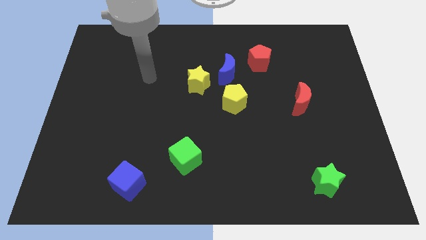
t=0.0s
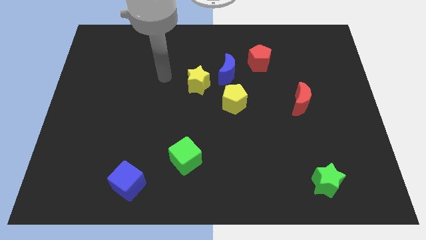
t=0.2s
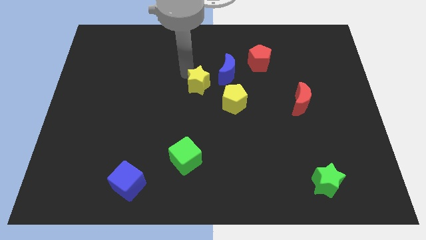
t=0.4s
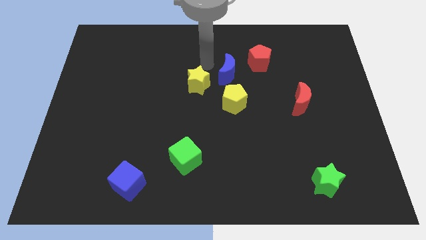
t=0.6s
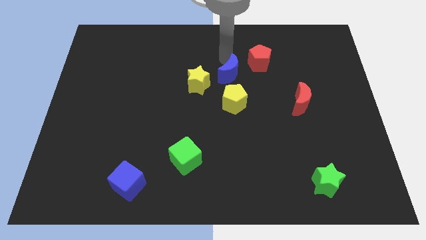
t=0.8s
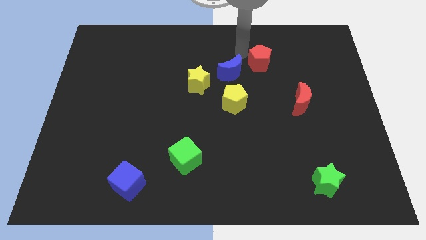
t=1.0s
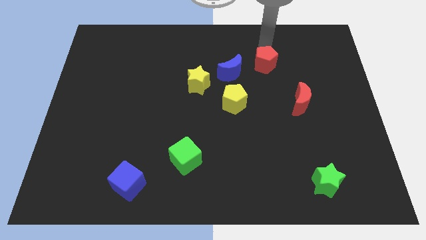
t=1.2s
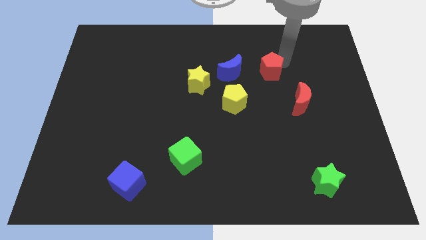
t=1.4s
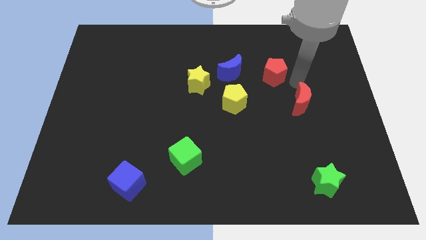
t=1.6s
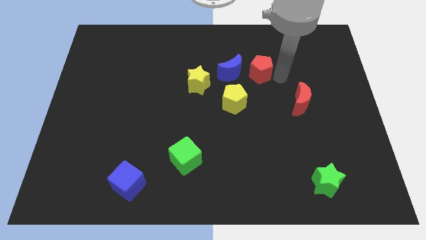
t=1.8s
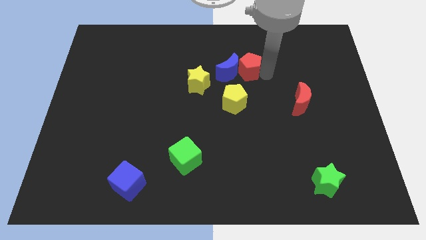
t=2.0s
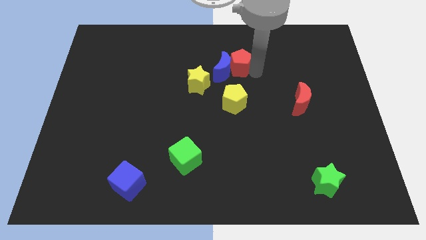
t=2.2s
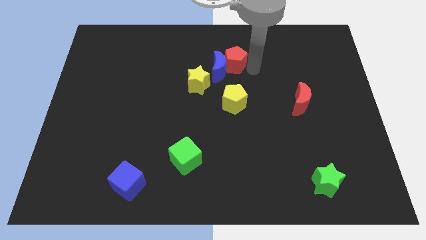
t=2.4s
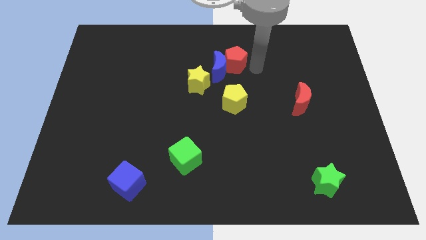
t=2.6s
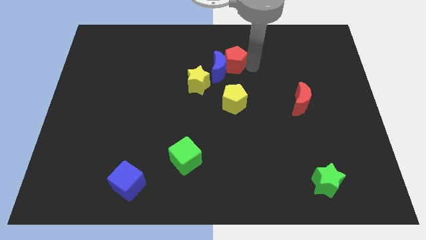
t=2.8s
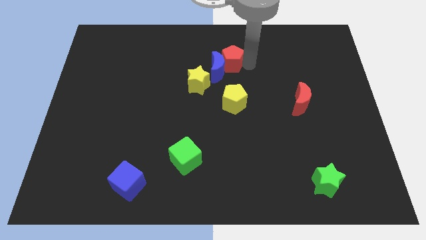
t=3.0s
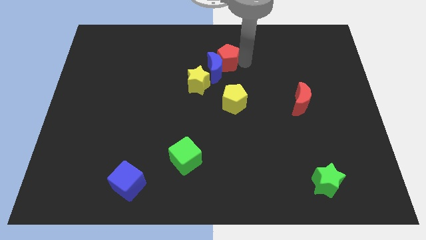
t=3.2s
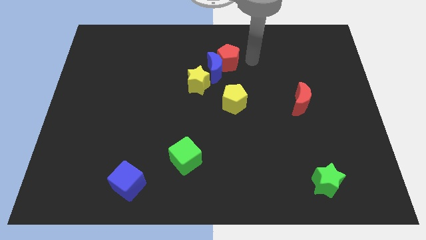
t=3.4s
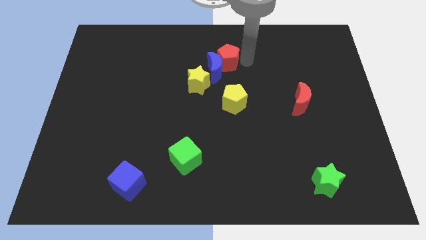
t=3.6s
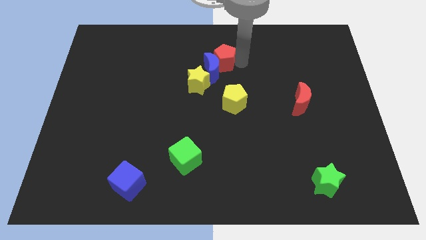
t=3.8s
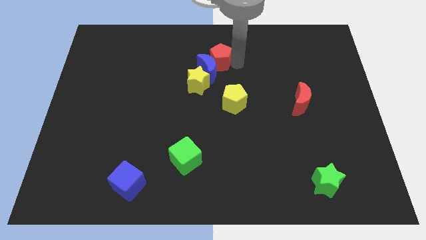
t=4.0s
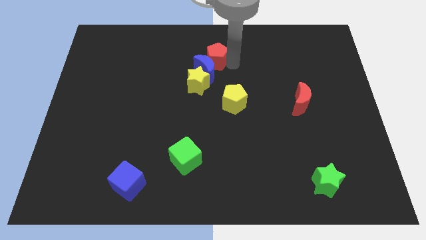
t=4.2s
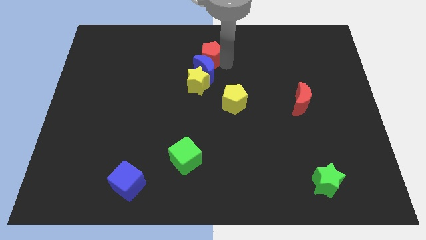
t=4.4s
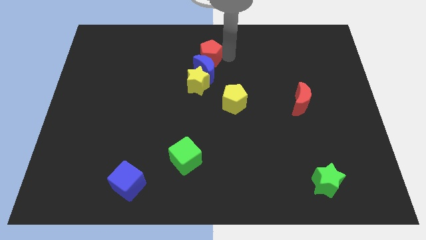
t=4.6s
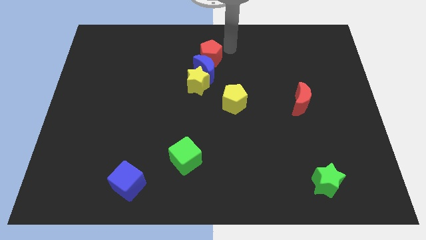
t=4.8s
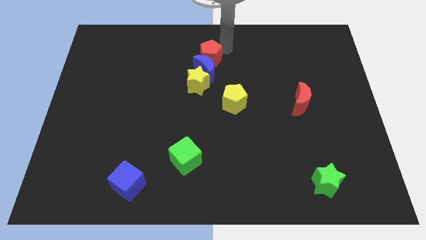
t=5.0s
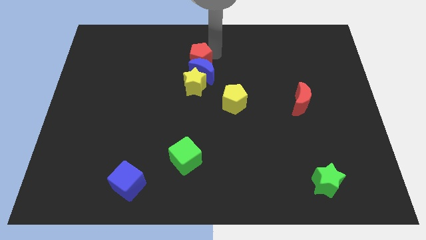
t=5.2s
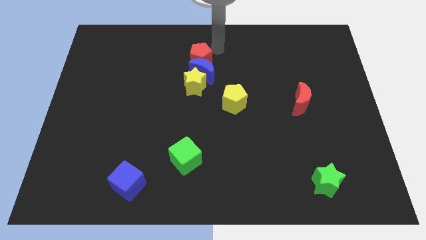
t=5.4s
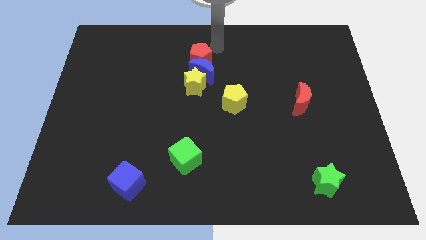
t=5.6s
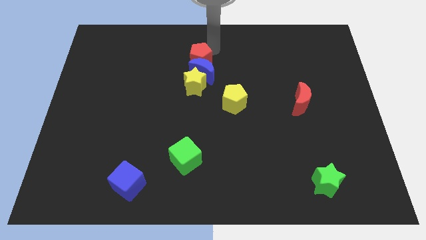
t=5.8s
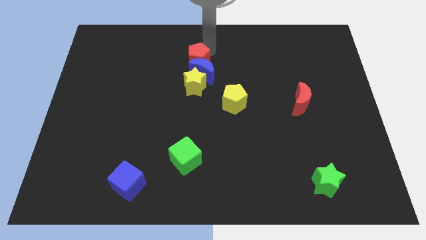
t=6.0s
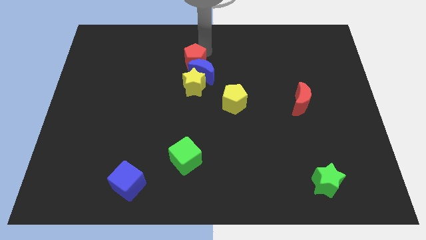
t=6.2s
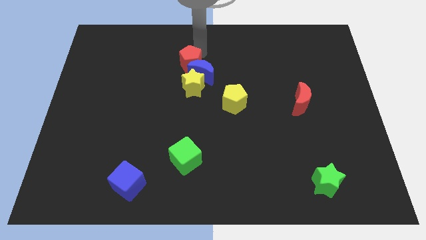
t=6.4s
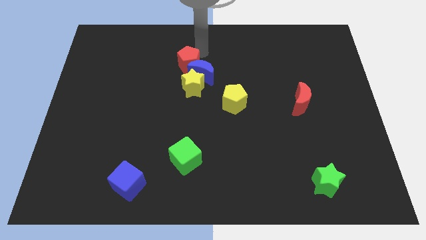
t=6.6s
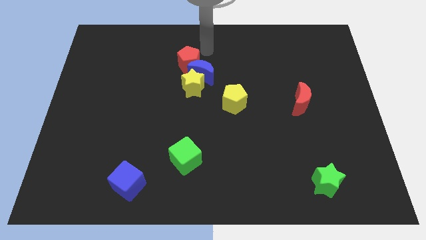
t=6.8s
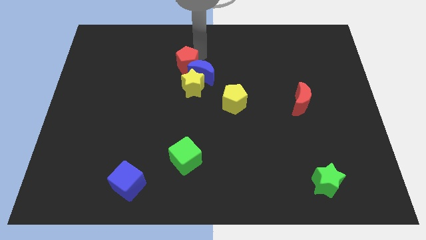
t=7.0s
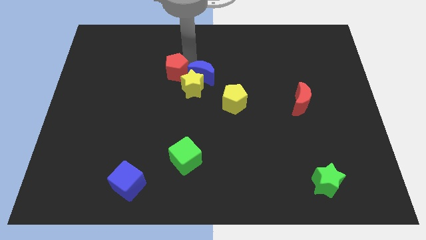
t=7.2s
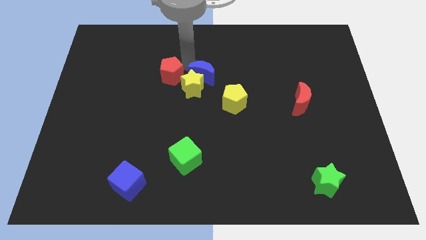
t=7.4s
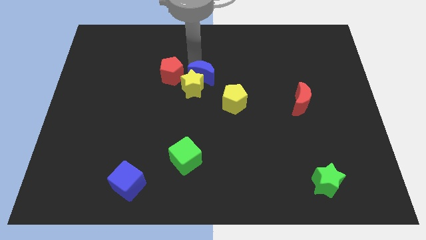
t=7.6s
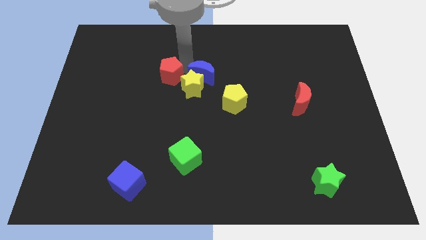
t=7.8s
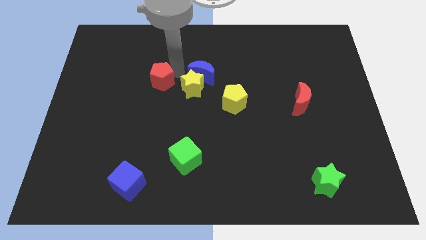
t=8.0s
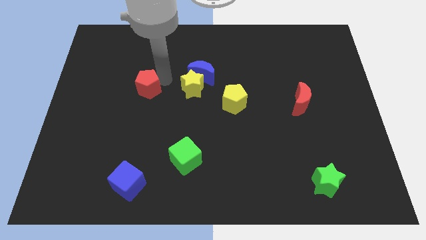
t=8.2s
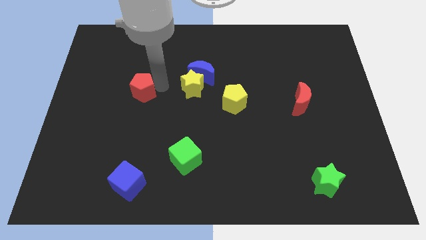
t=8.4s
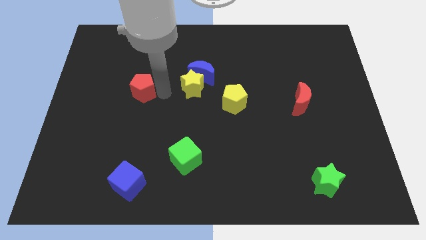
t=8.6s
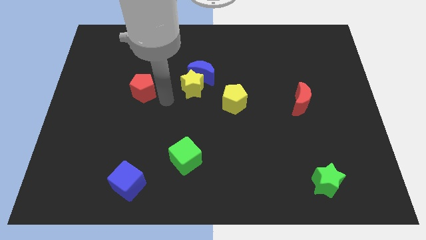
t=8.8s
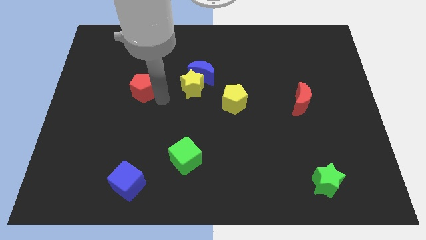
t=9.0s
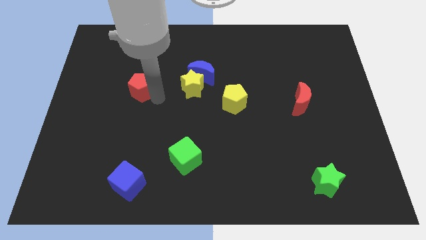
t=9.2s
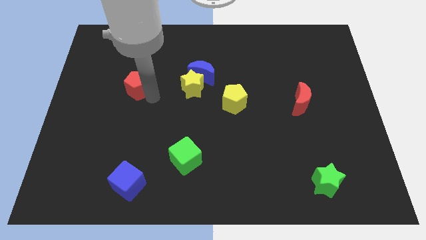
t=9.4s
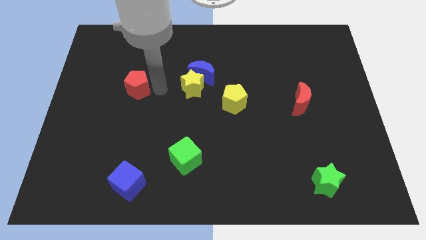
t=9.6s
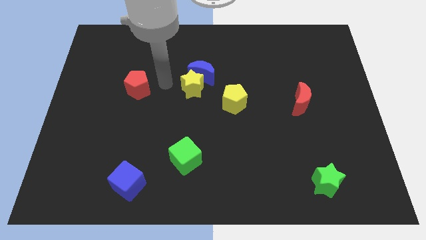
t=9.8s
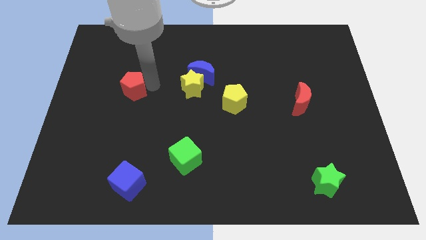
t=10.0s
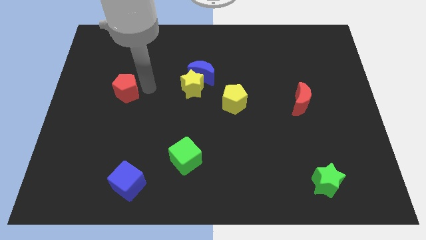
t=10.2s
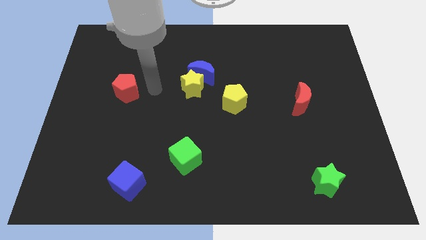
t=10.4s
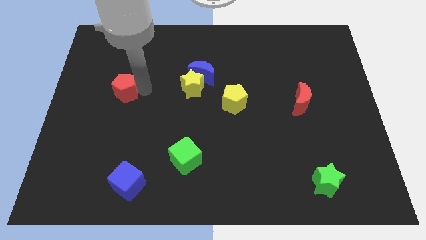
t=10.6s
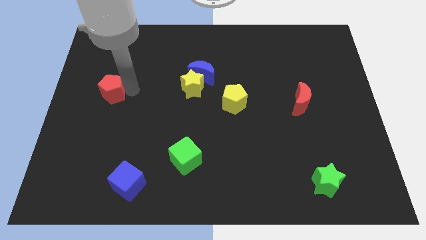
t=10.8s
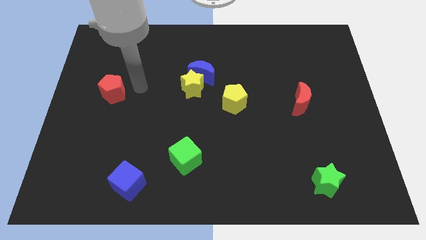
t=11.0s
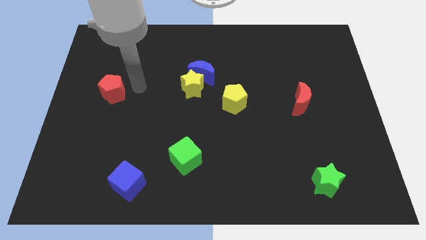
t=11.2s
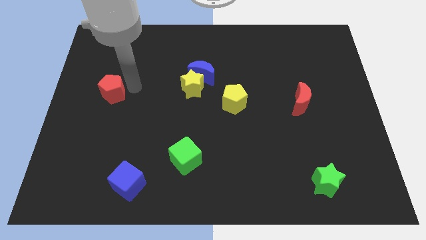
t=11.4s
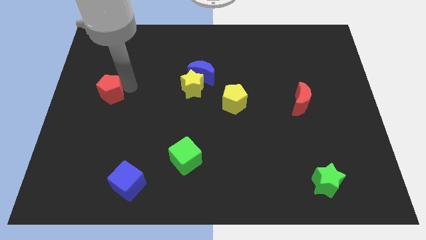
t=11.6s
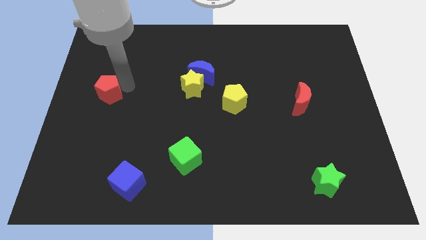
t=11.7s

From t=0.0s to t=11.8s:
push the red pentagon to the center left

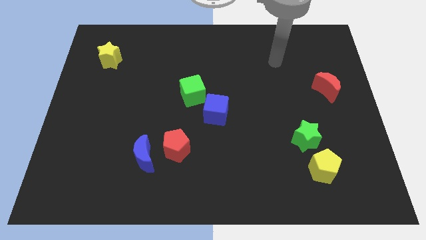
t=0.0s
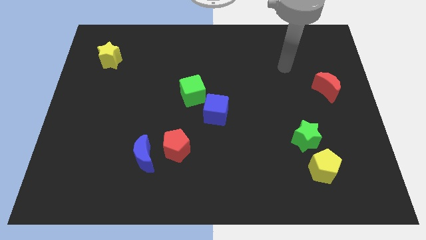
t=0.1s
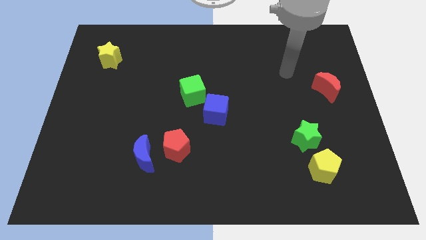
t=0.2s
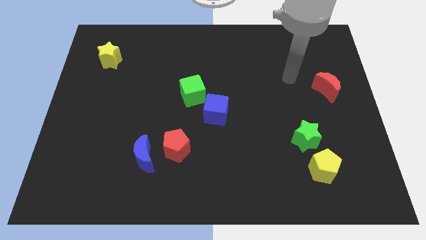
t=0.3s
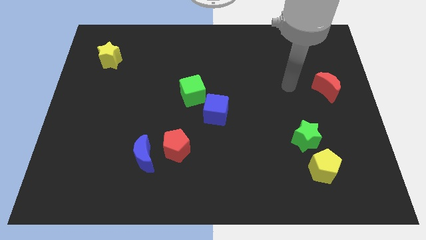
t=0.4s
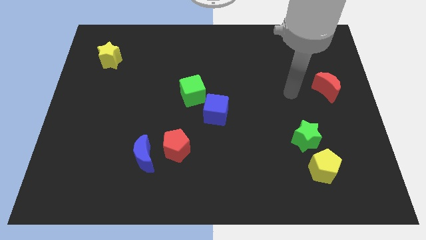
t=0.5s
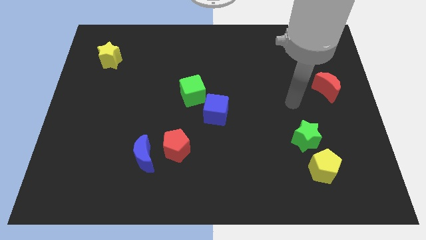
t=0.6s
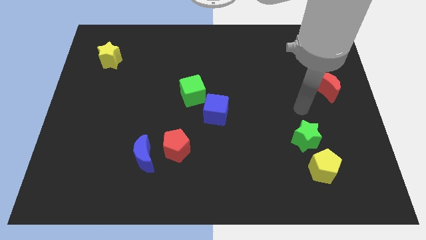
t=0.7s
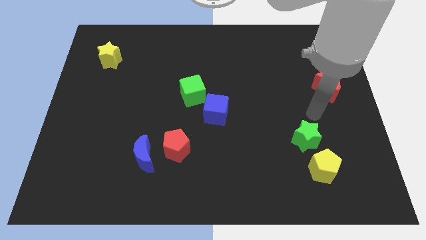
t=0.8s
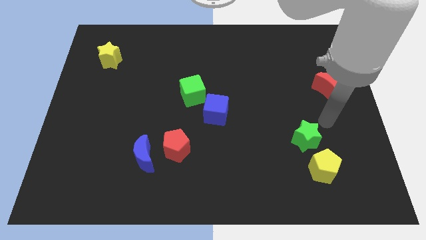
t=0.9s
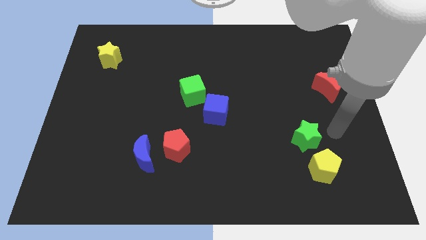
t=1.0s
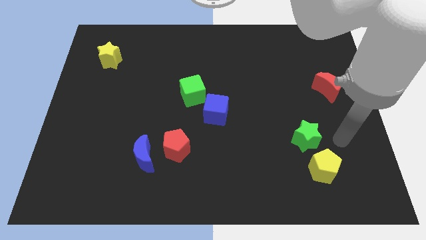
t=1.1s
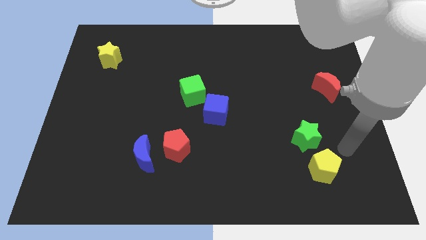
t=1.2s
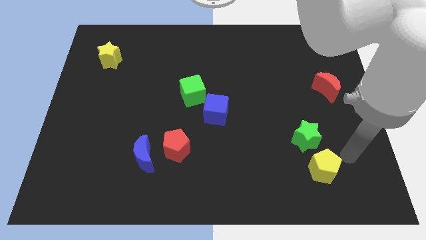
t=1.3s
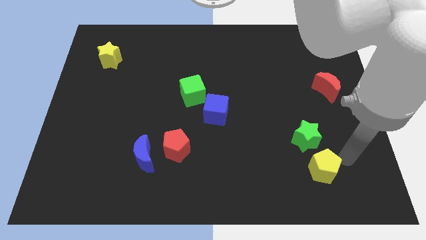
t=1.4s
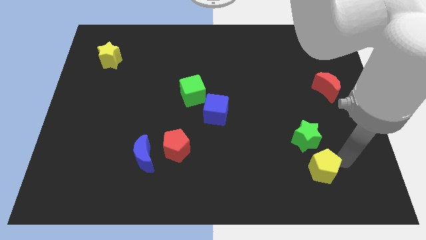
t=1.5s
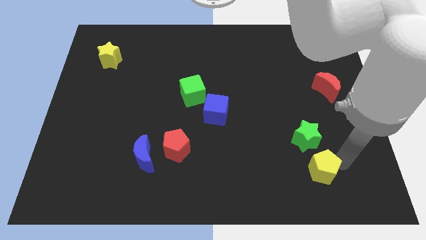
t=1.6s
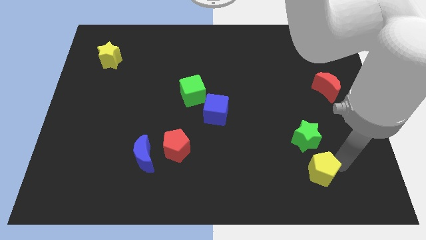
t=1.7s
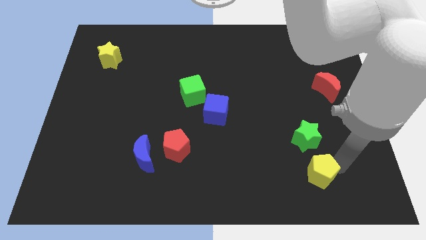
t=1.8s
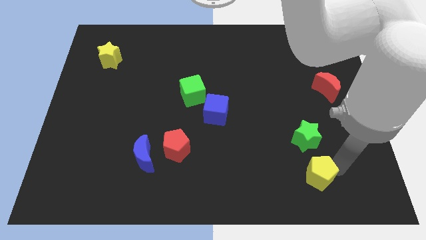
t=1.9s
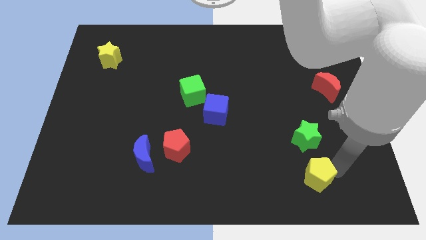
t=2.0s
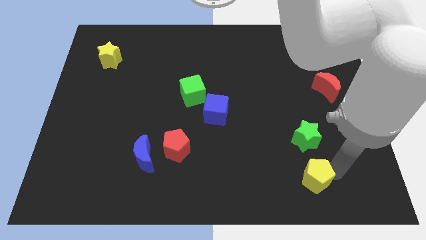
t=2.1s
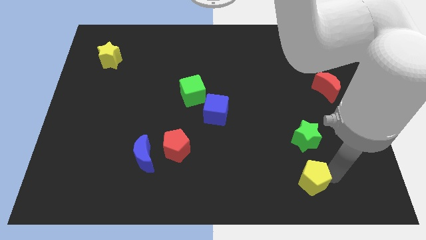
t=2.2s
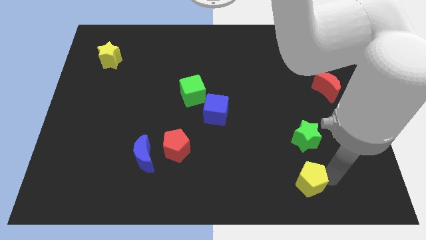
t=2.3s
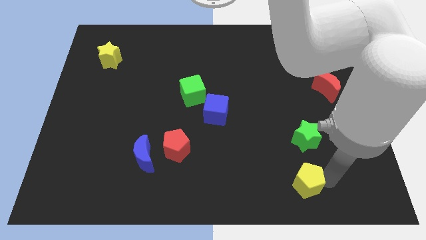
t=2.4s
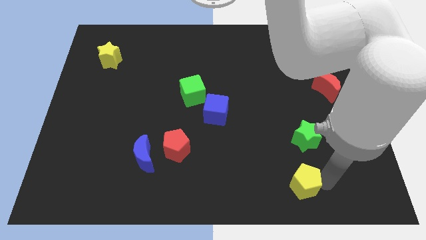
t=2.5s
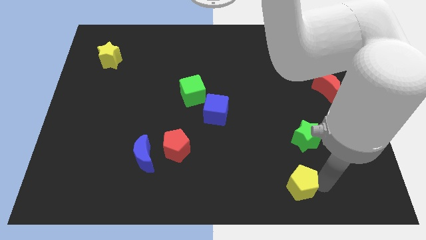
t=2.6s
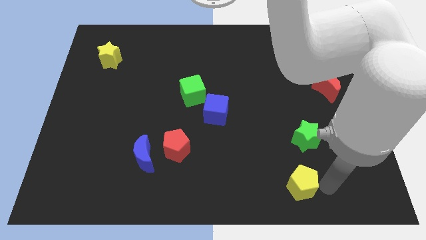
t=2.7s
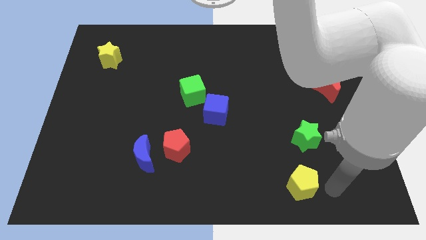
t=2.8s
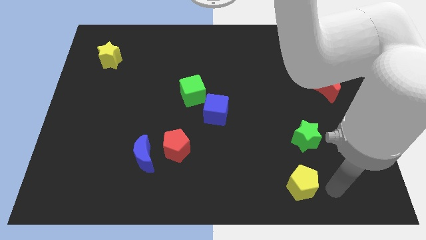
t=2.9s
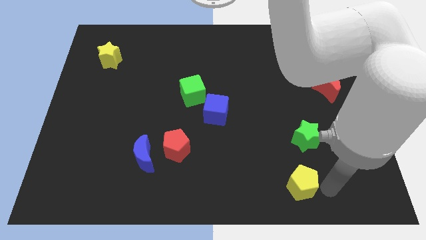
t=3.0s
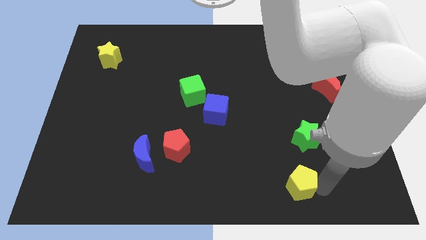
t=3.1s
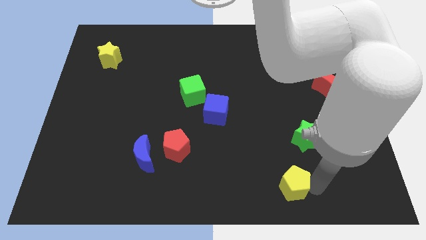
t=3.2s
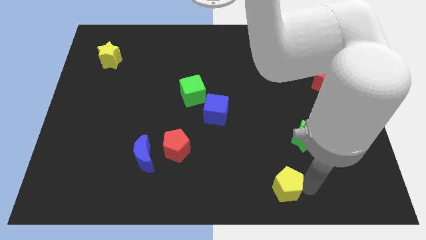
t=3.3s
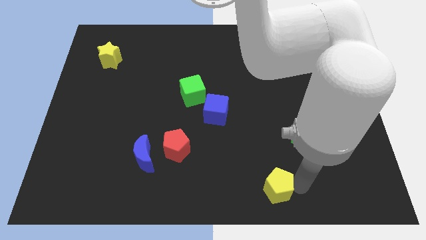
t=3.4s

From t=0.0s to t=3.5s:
put the yellow pentagon to the bottom side
